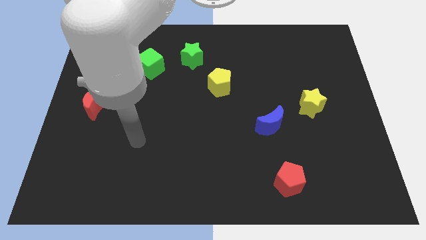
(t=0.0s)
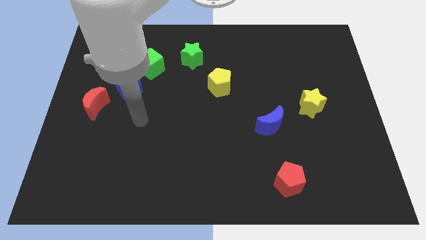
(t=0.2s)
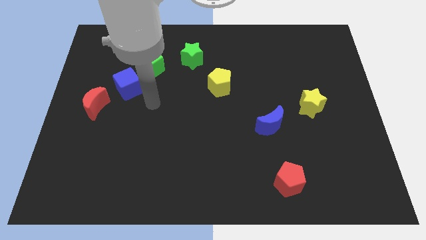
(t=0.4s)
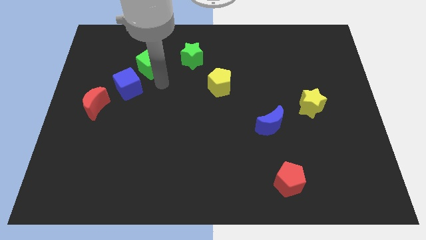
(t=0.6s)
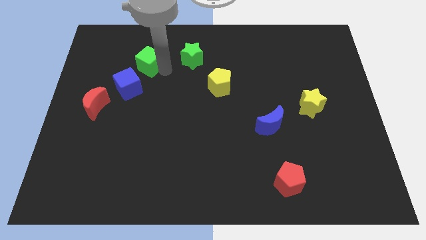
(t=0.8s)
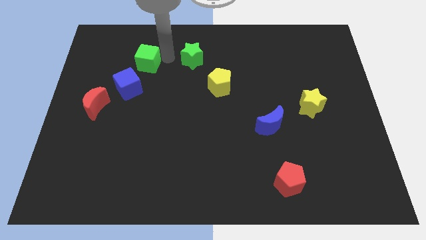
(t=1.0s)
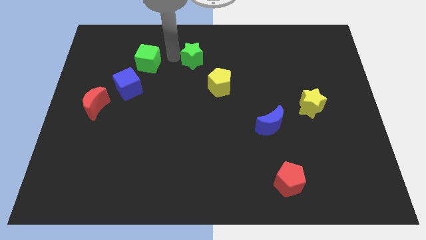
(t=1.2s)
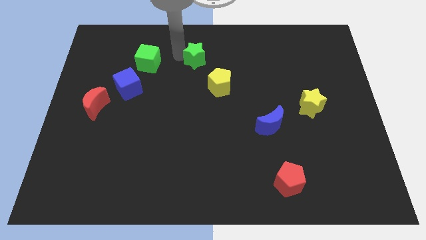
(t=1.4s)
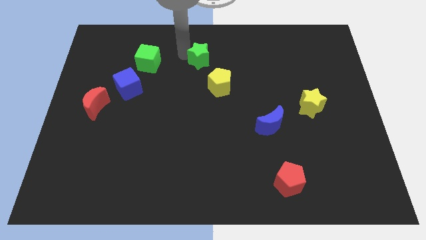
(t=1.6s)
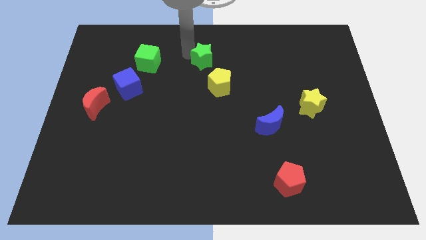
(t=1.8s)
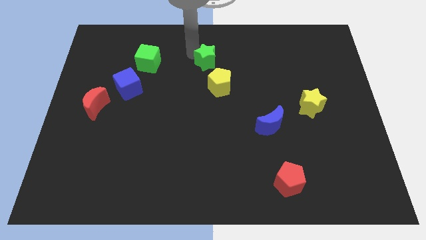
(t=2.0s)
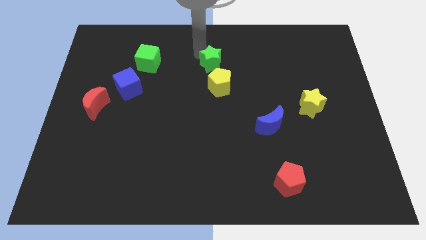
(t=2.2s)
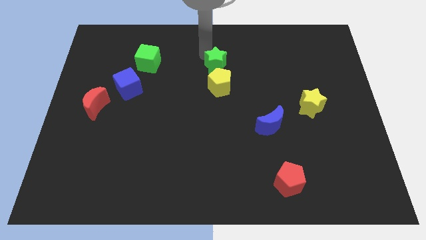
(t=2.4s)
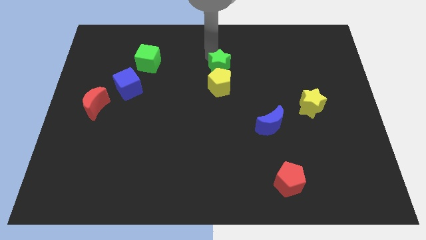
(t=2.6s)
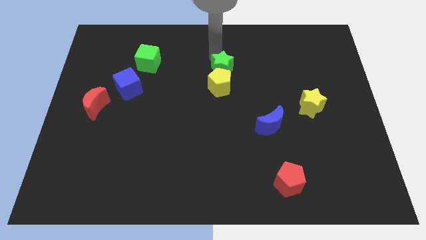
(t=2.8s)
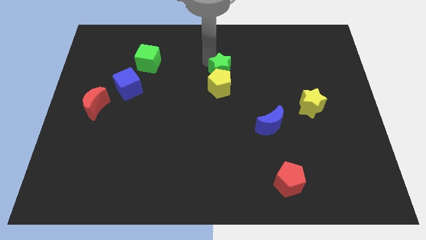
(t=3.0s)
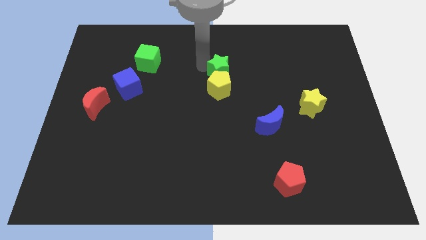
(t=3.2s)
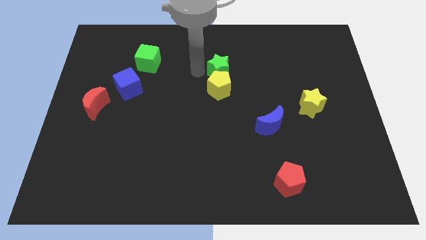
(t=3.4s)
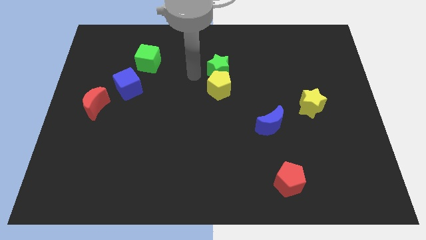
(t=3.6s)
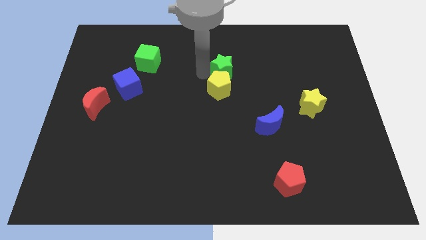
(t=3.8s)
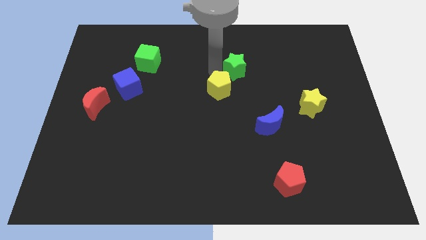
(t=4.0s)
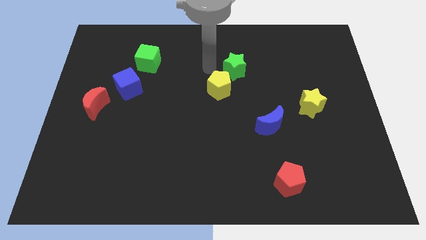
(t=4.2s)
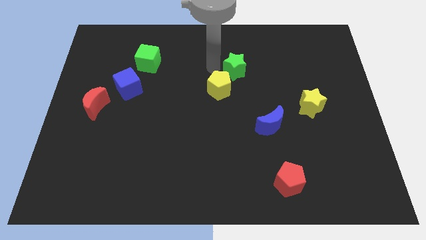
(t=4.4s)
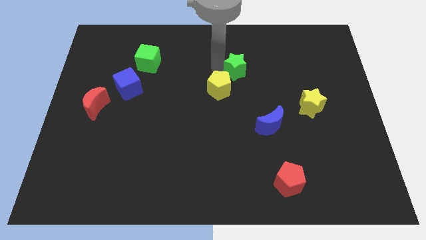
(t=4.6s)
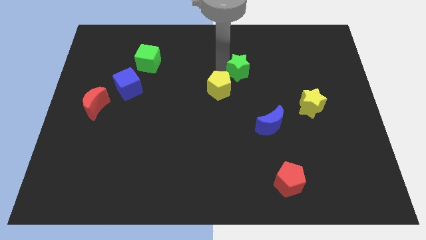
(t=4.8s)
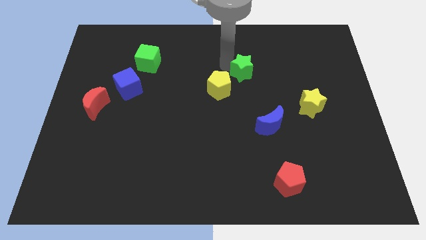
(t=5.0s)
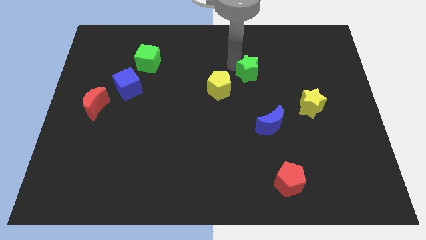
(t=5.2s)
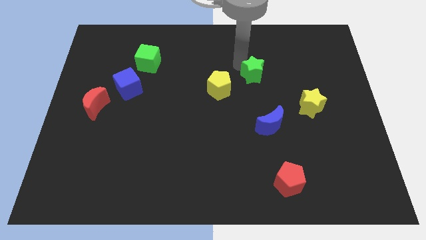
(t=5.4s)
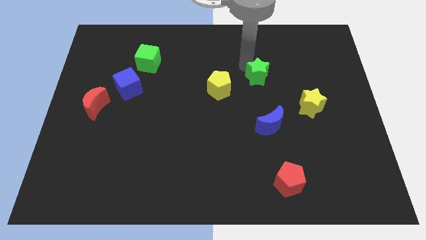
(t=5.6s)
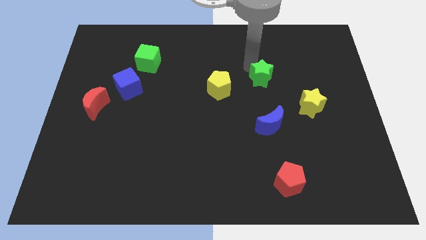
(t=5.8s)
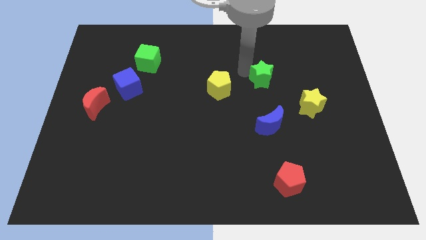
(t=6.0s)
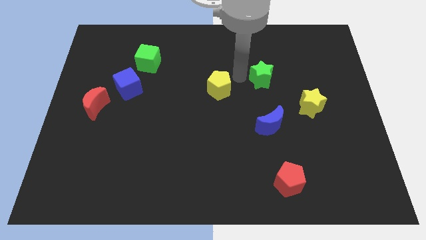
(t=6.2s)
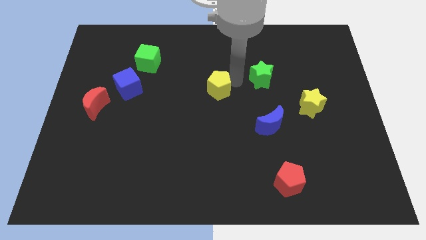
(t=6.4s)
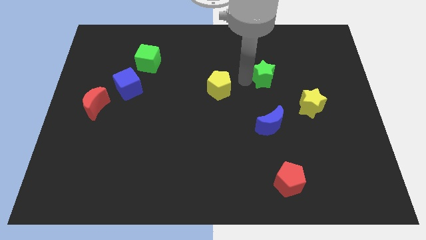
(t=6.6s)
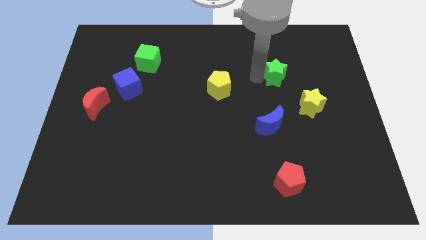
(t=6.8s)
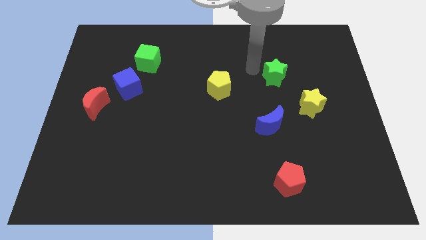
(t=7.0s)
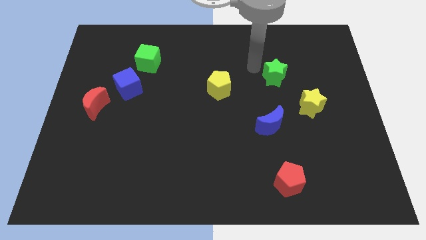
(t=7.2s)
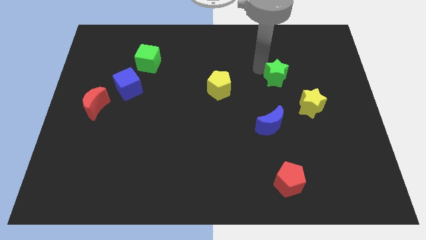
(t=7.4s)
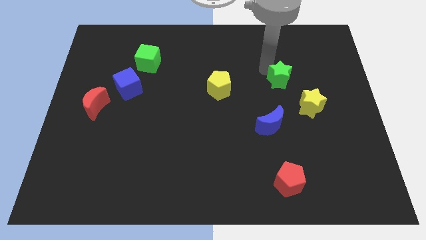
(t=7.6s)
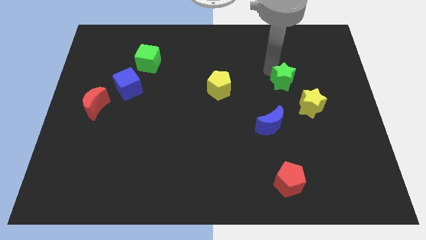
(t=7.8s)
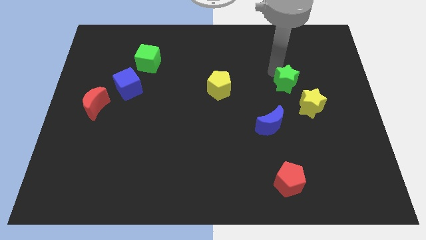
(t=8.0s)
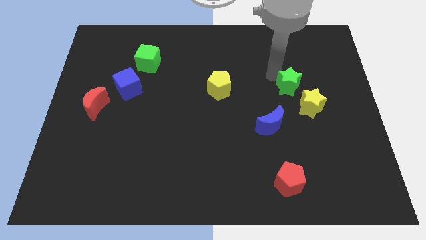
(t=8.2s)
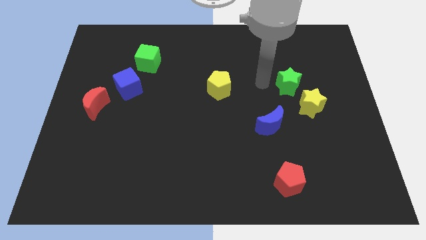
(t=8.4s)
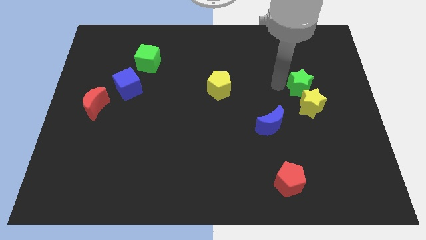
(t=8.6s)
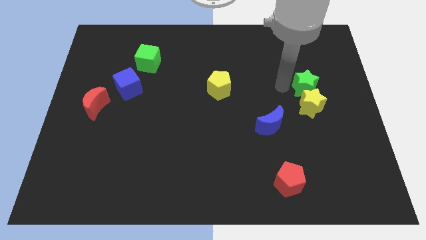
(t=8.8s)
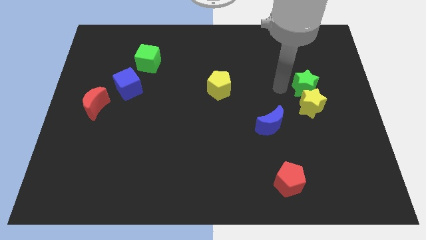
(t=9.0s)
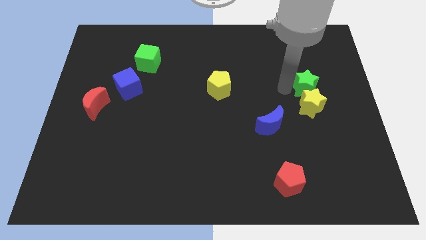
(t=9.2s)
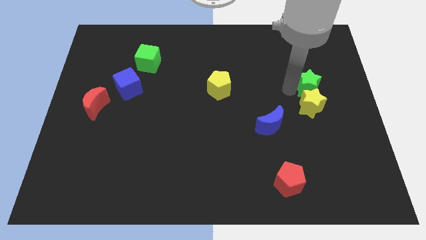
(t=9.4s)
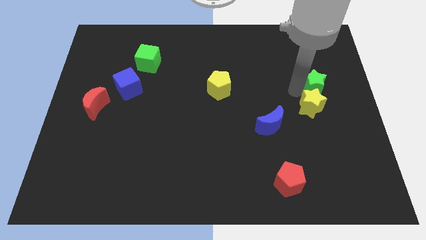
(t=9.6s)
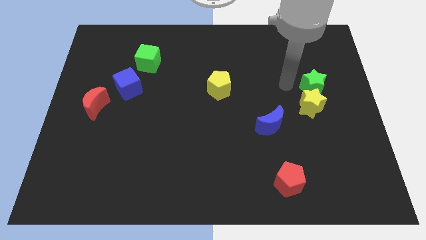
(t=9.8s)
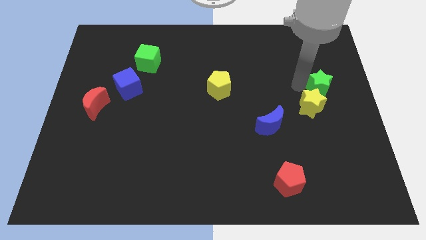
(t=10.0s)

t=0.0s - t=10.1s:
slide the green star to the right side

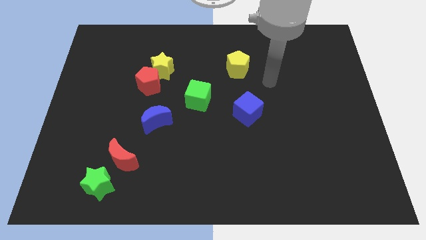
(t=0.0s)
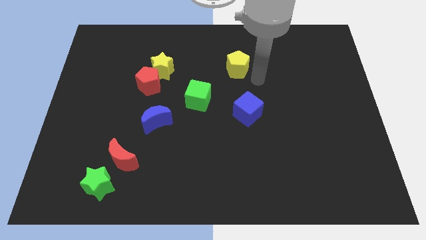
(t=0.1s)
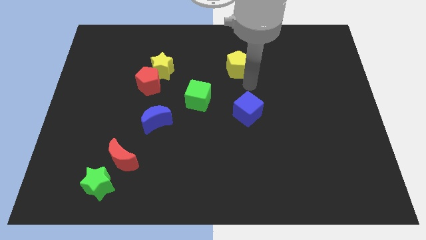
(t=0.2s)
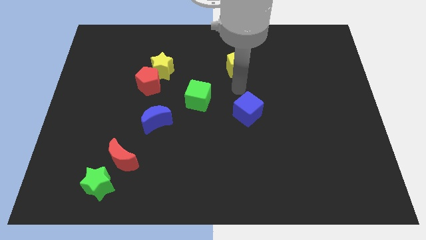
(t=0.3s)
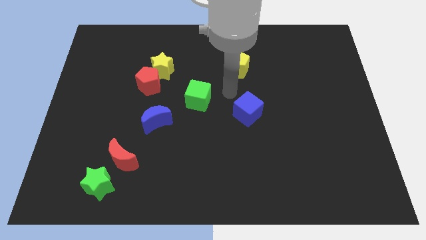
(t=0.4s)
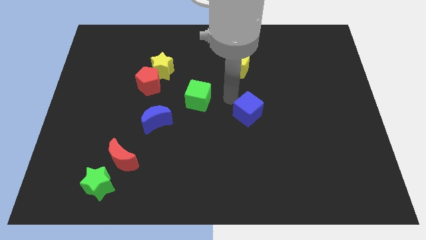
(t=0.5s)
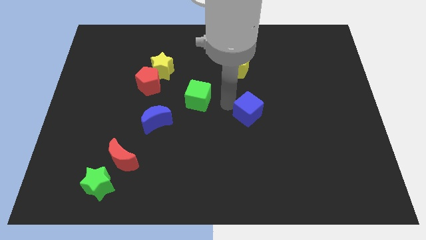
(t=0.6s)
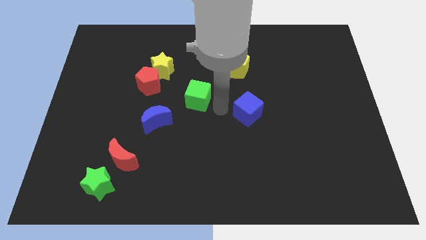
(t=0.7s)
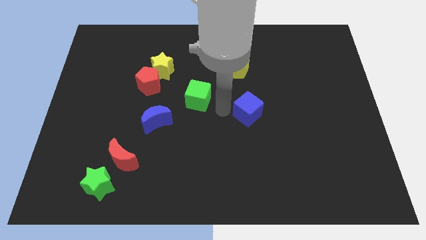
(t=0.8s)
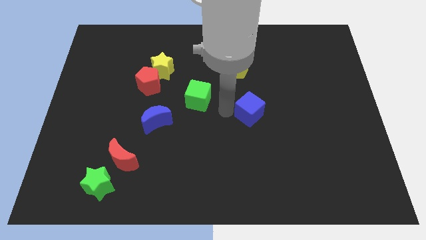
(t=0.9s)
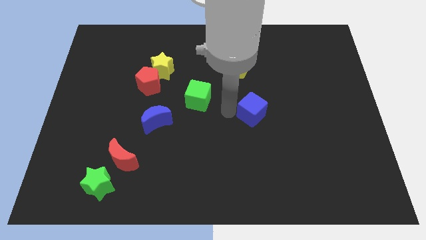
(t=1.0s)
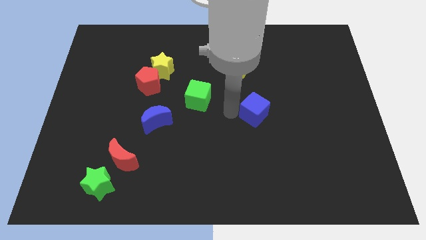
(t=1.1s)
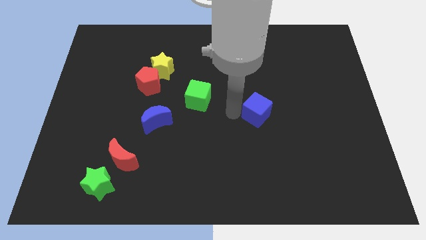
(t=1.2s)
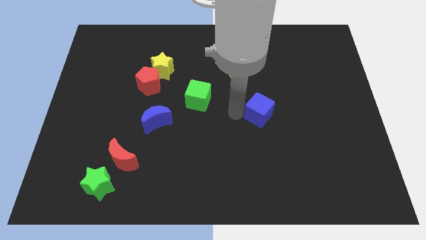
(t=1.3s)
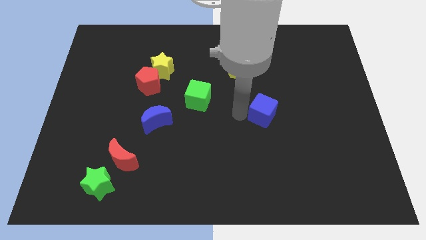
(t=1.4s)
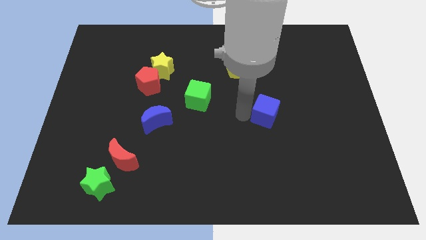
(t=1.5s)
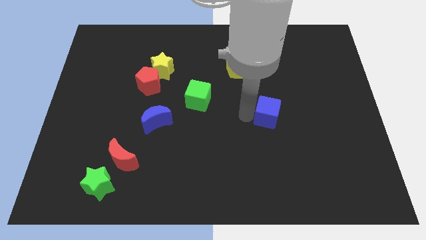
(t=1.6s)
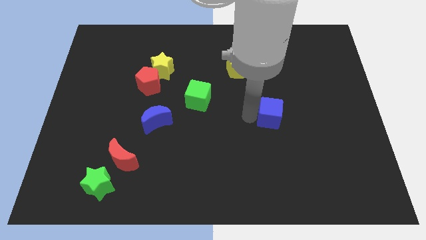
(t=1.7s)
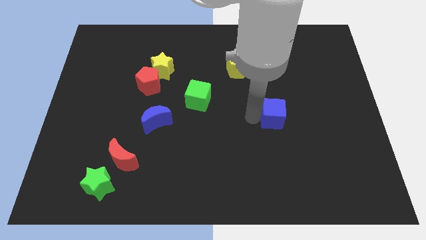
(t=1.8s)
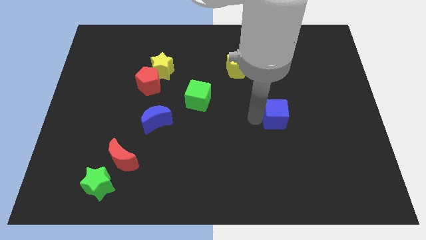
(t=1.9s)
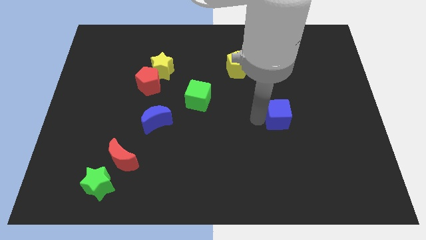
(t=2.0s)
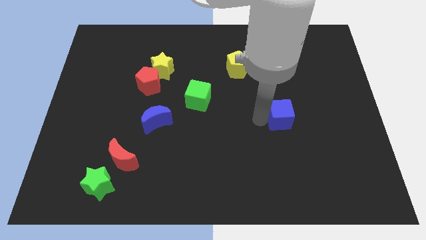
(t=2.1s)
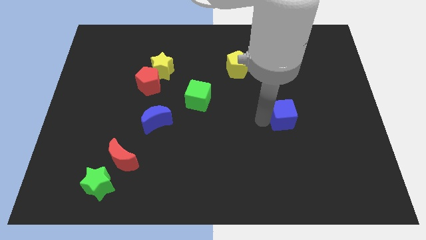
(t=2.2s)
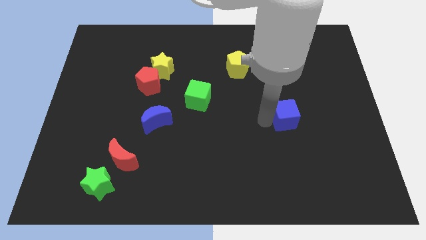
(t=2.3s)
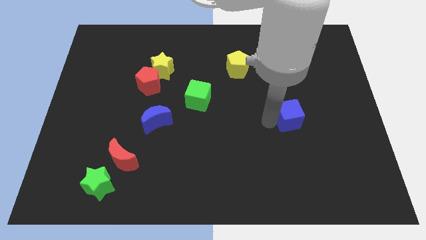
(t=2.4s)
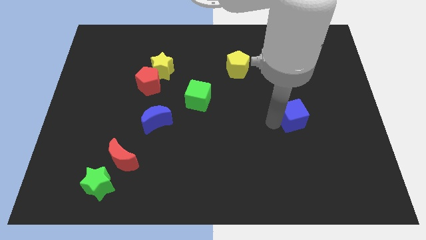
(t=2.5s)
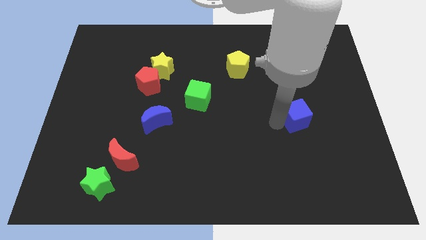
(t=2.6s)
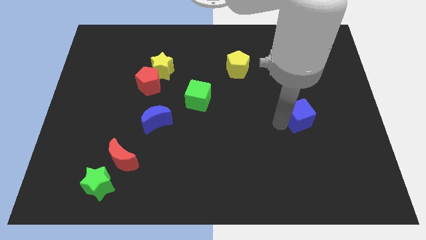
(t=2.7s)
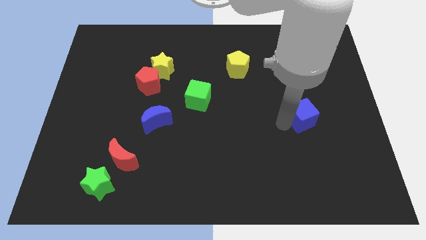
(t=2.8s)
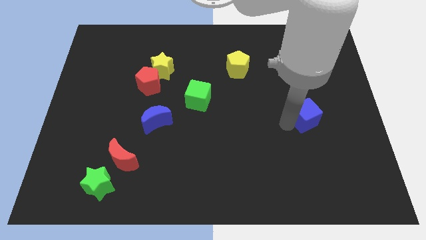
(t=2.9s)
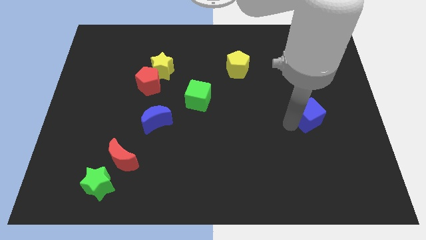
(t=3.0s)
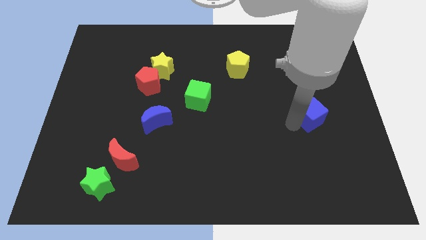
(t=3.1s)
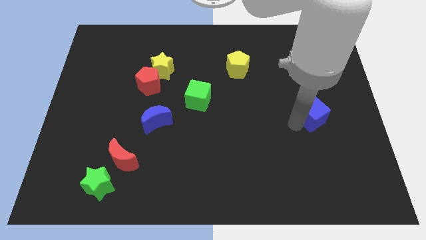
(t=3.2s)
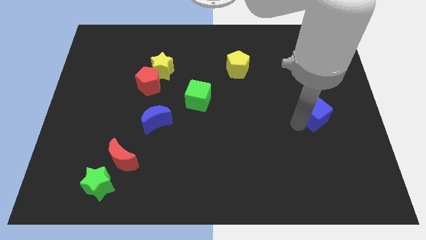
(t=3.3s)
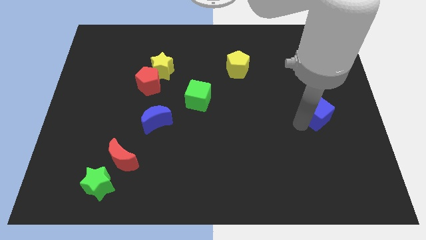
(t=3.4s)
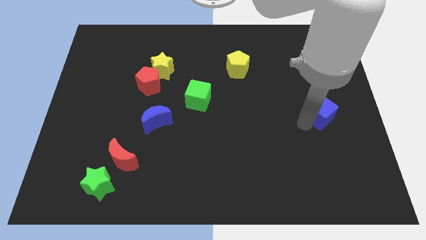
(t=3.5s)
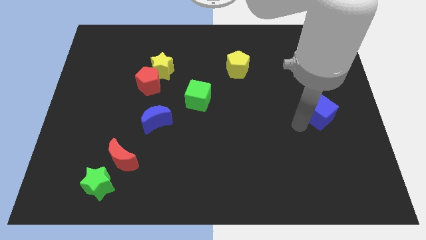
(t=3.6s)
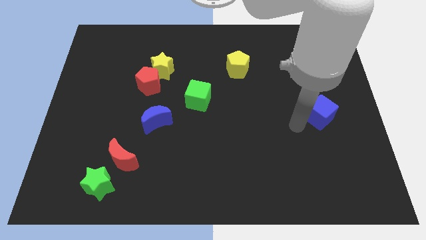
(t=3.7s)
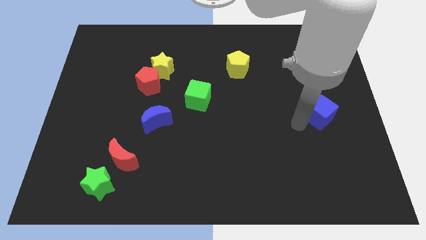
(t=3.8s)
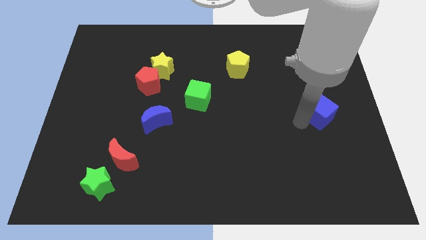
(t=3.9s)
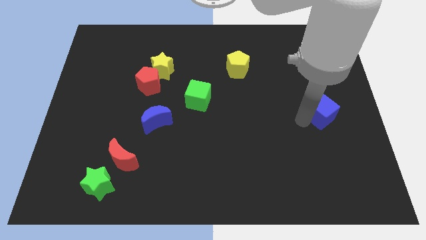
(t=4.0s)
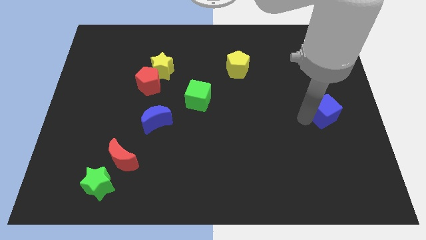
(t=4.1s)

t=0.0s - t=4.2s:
put the blue cube to the right side
